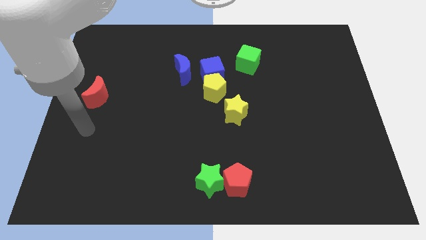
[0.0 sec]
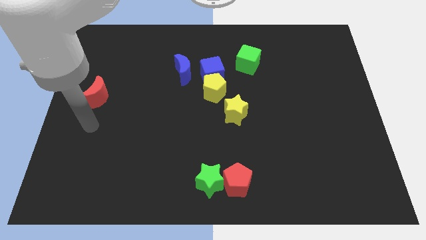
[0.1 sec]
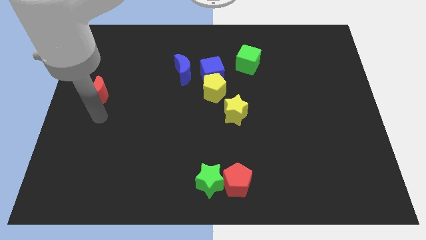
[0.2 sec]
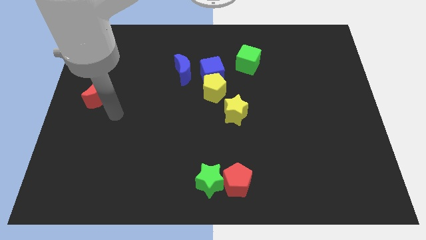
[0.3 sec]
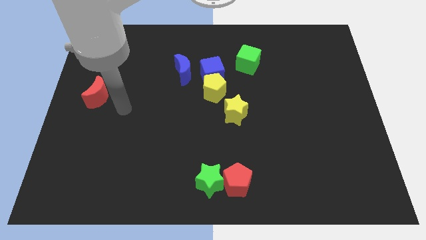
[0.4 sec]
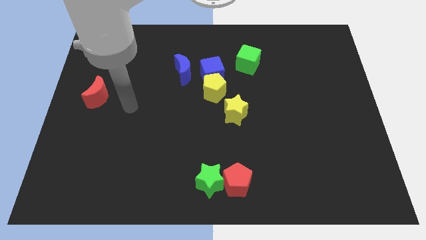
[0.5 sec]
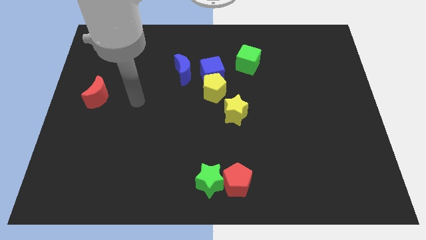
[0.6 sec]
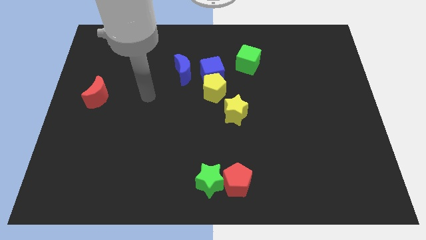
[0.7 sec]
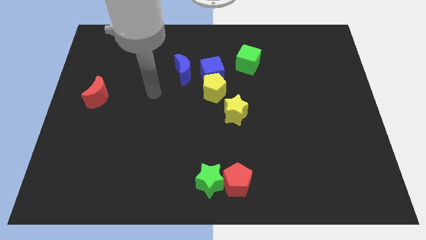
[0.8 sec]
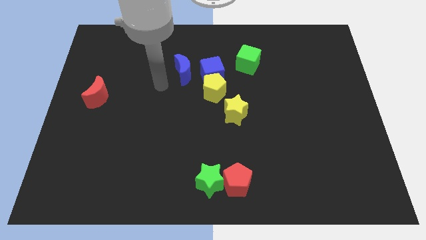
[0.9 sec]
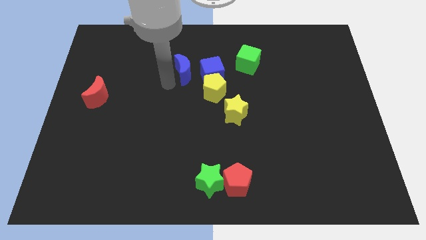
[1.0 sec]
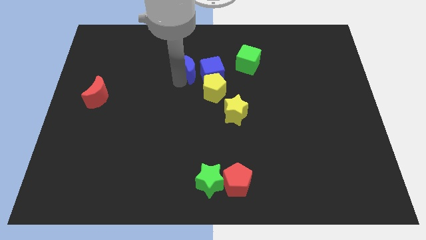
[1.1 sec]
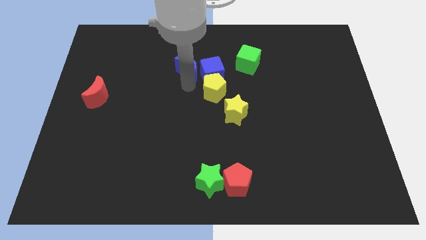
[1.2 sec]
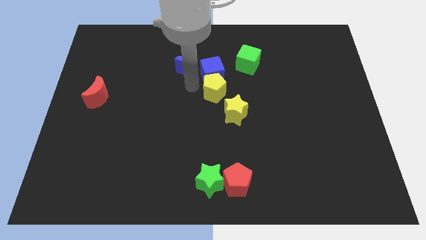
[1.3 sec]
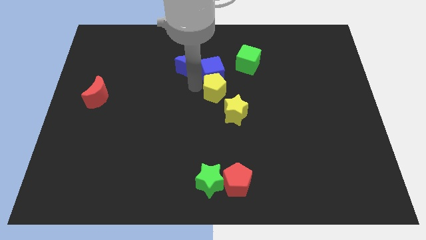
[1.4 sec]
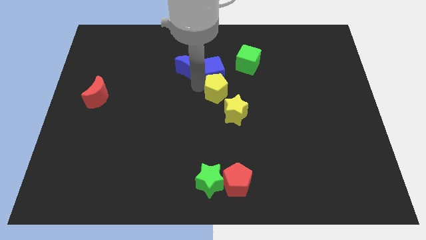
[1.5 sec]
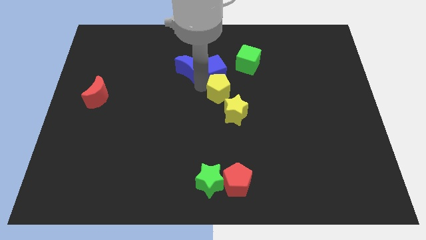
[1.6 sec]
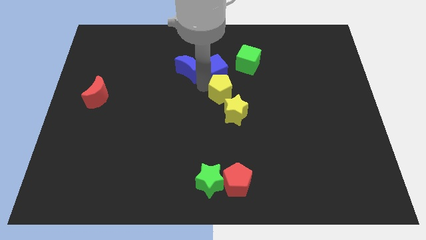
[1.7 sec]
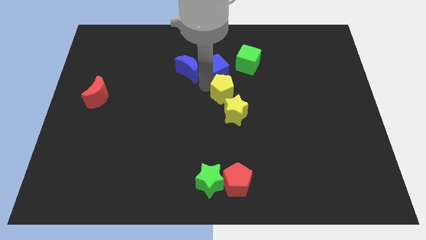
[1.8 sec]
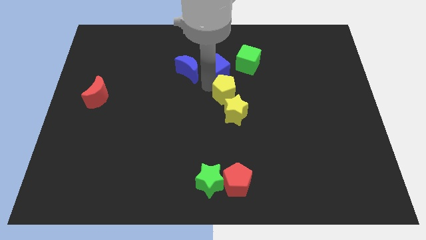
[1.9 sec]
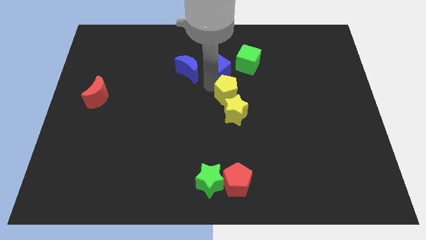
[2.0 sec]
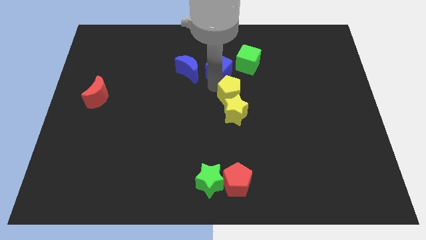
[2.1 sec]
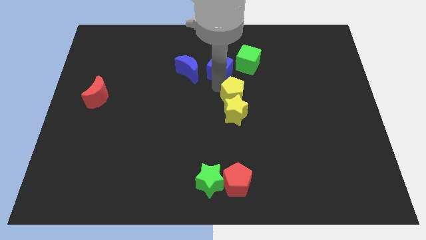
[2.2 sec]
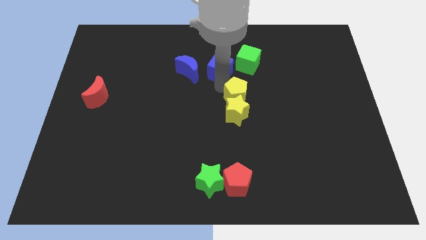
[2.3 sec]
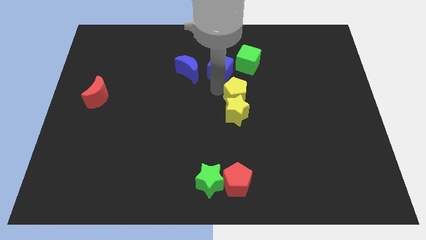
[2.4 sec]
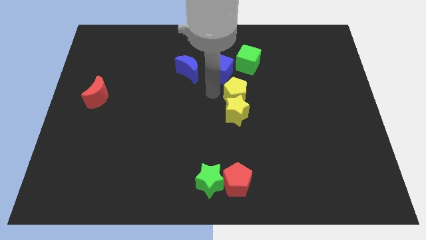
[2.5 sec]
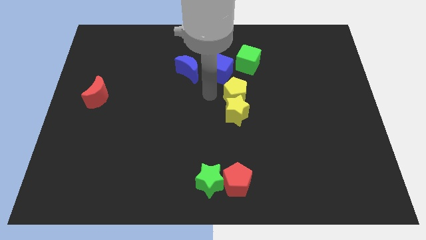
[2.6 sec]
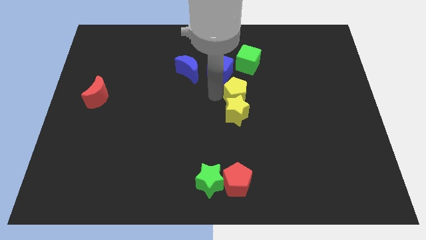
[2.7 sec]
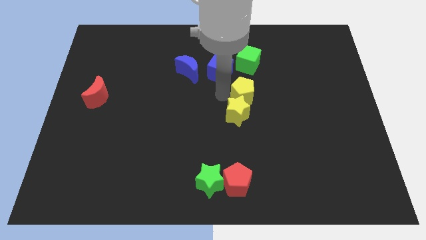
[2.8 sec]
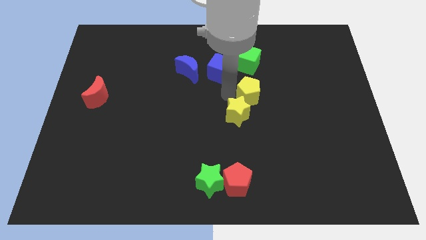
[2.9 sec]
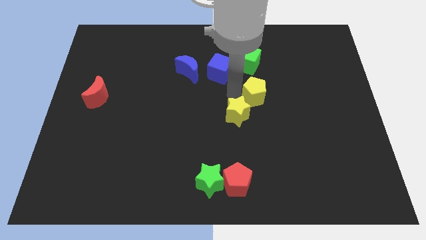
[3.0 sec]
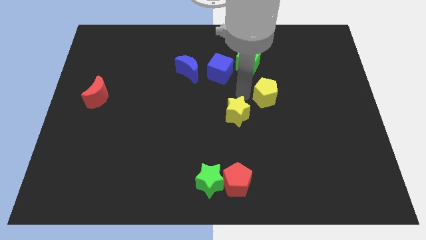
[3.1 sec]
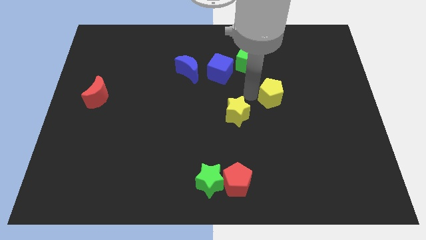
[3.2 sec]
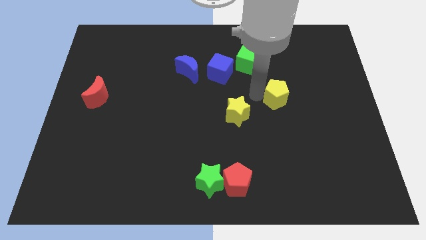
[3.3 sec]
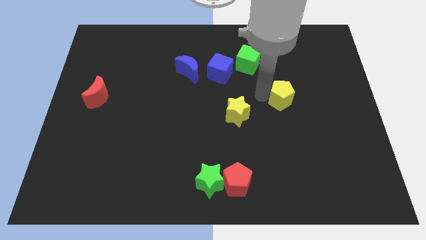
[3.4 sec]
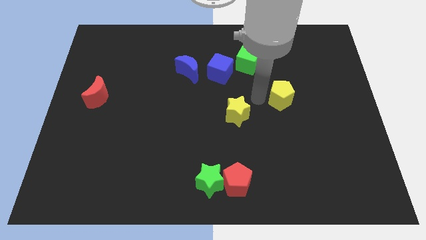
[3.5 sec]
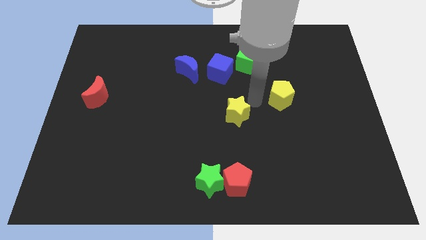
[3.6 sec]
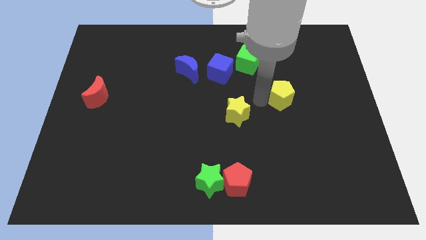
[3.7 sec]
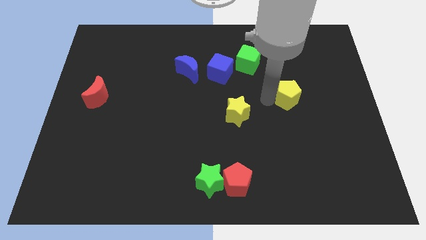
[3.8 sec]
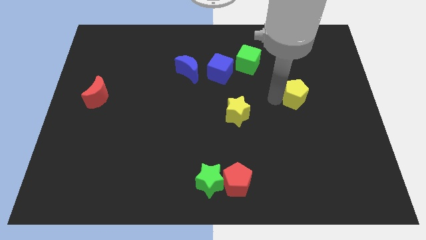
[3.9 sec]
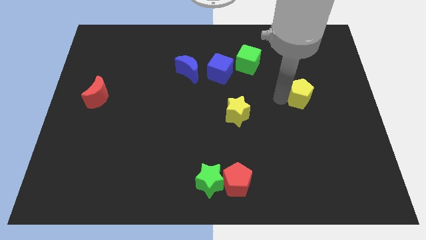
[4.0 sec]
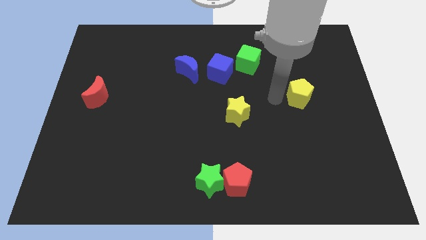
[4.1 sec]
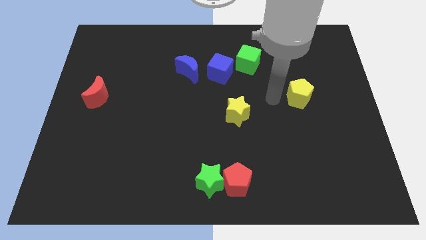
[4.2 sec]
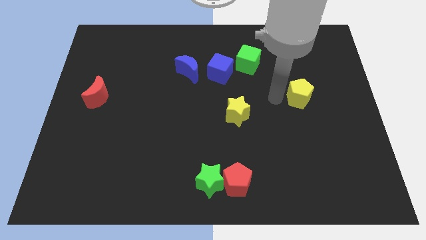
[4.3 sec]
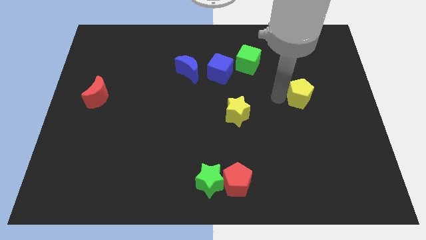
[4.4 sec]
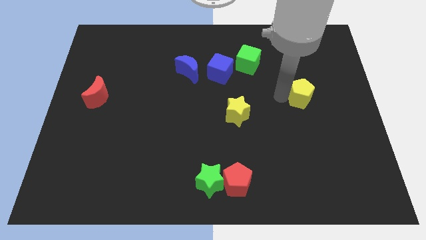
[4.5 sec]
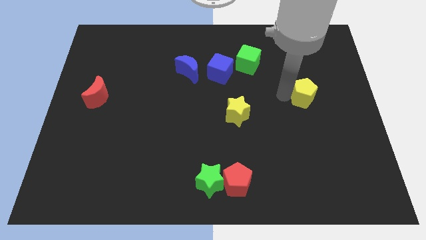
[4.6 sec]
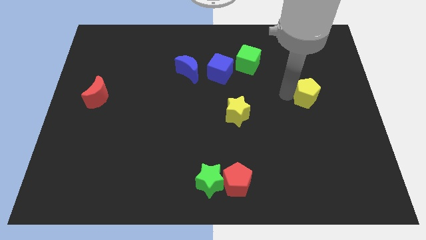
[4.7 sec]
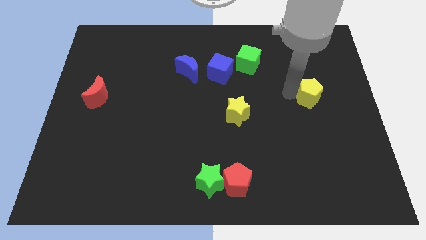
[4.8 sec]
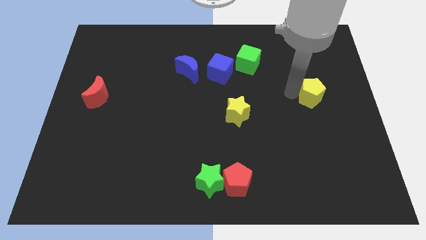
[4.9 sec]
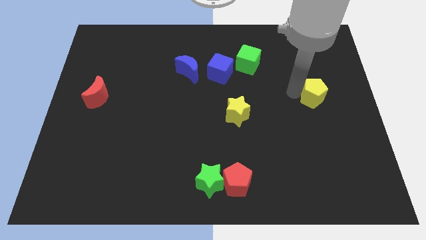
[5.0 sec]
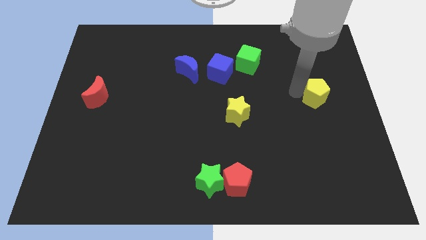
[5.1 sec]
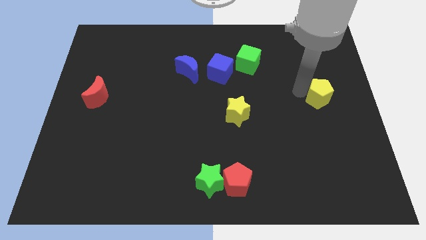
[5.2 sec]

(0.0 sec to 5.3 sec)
slide the yellow pentagon to the right side of the board

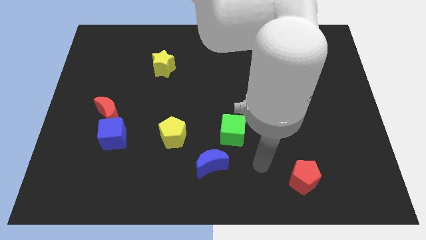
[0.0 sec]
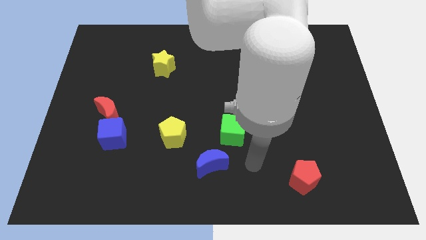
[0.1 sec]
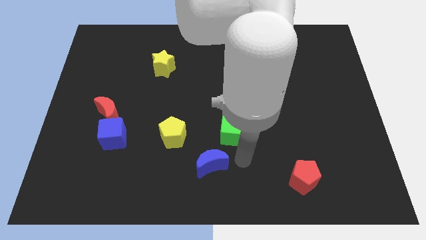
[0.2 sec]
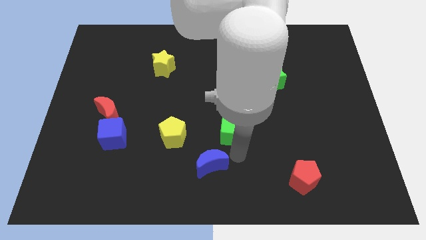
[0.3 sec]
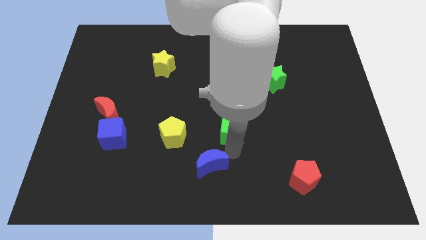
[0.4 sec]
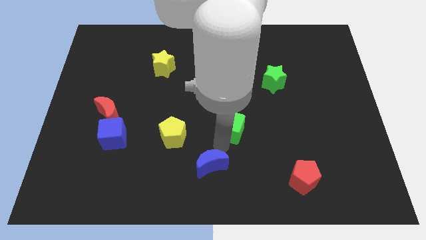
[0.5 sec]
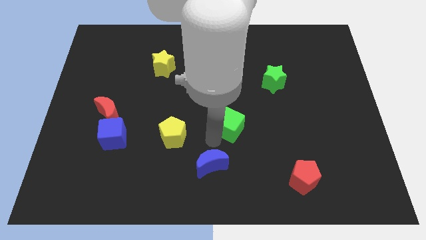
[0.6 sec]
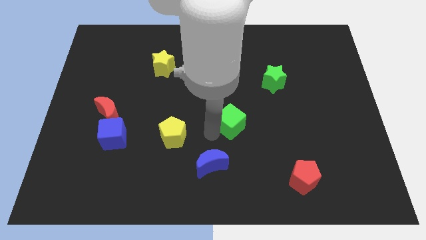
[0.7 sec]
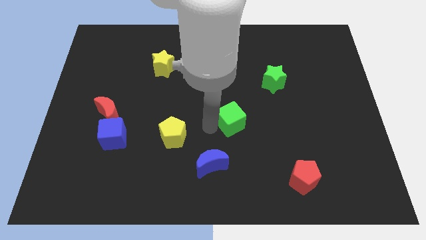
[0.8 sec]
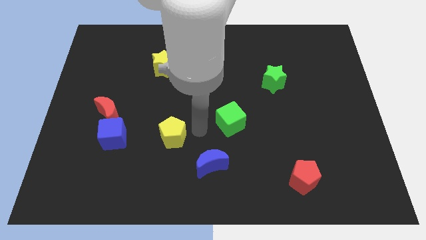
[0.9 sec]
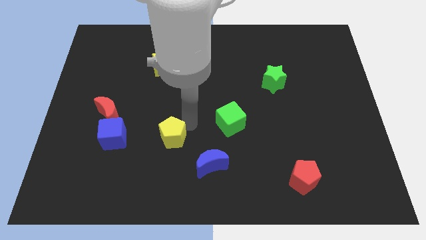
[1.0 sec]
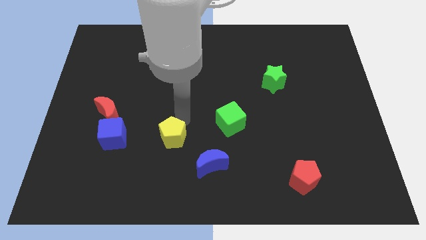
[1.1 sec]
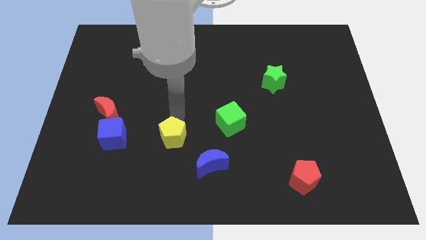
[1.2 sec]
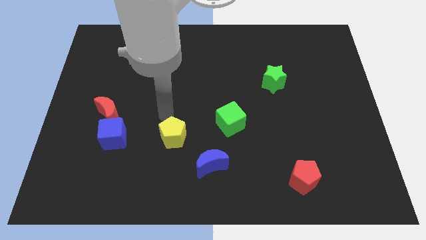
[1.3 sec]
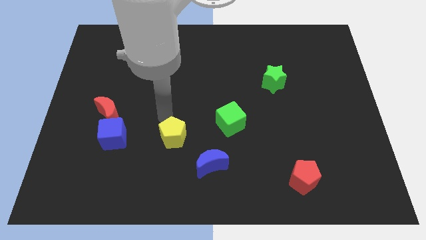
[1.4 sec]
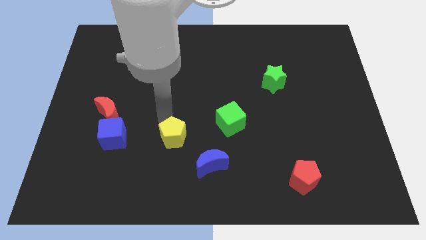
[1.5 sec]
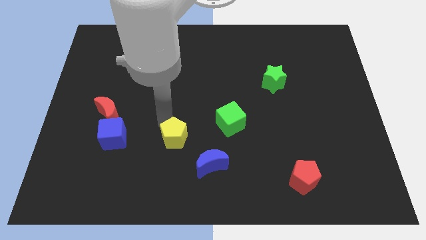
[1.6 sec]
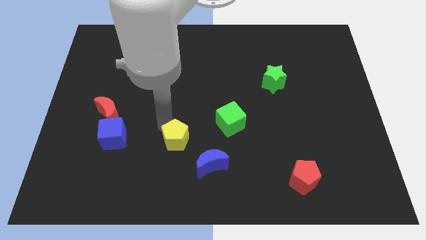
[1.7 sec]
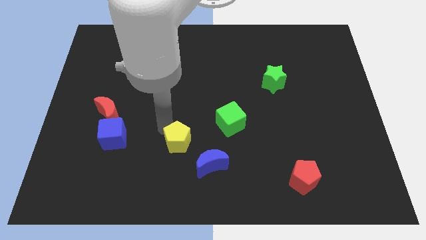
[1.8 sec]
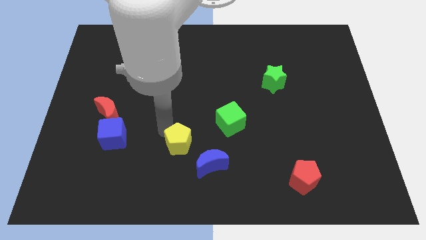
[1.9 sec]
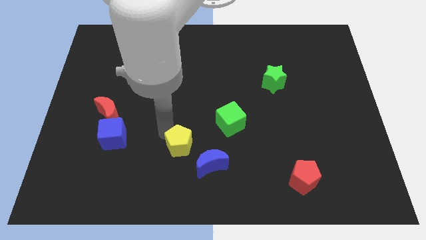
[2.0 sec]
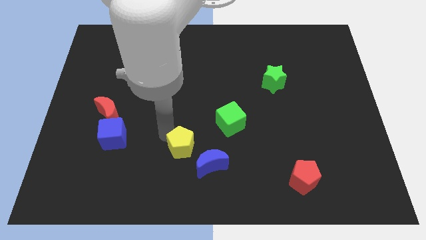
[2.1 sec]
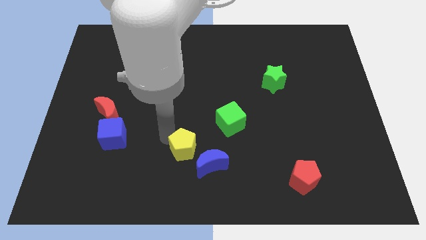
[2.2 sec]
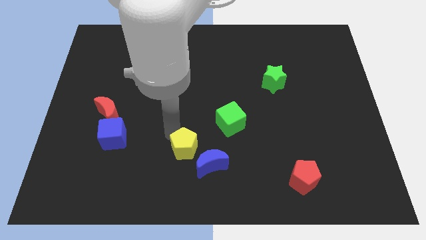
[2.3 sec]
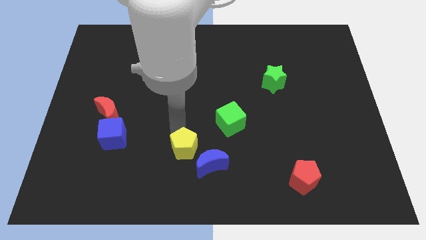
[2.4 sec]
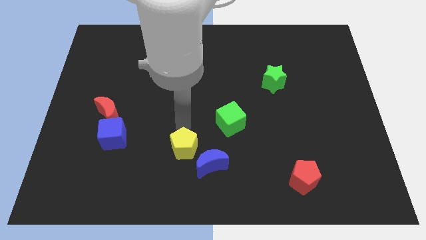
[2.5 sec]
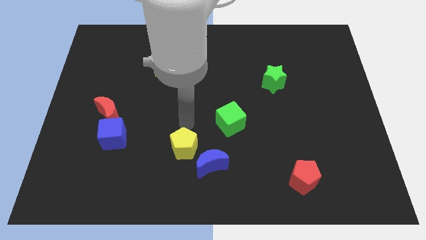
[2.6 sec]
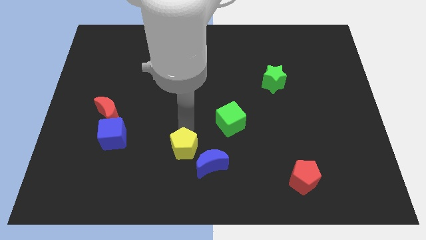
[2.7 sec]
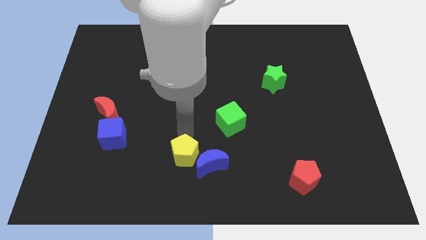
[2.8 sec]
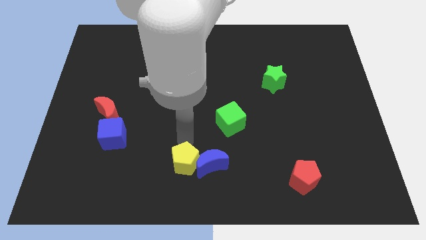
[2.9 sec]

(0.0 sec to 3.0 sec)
move the yellow pentagon to the bottom
